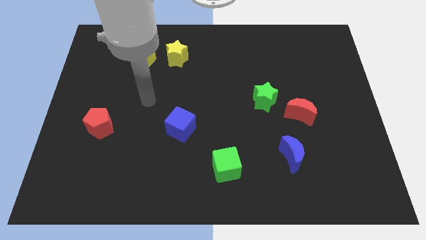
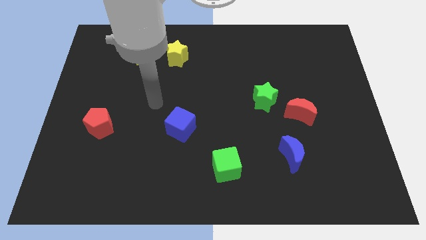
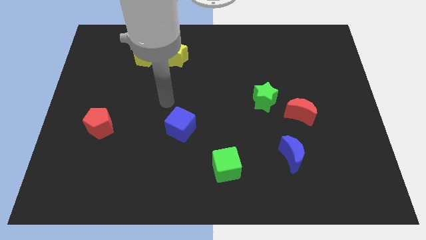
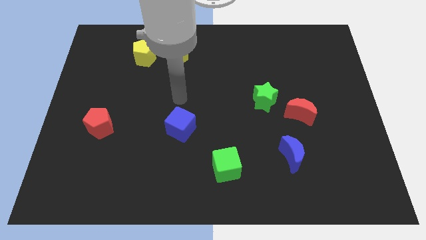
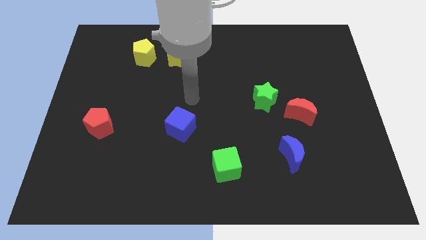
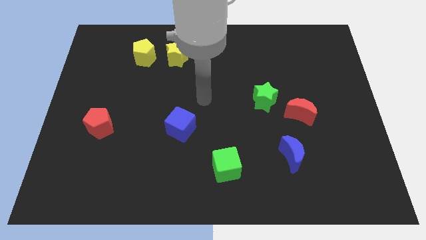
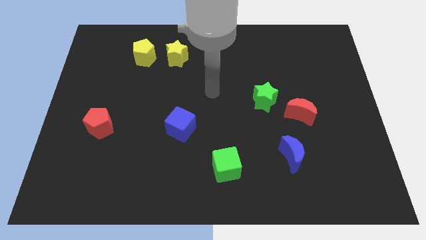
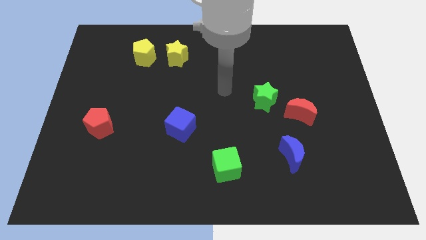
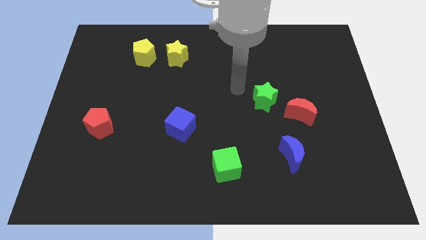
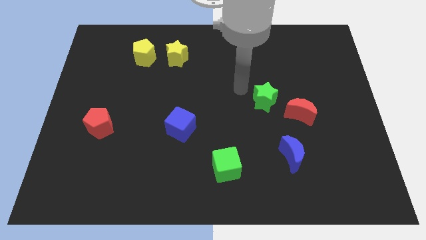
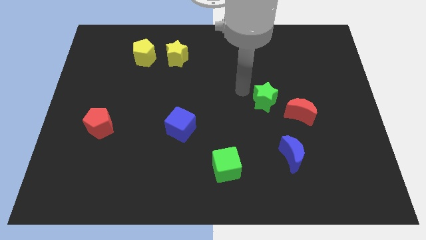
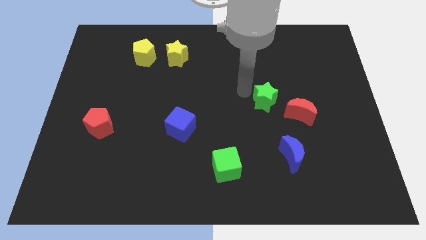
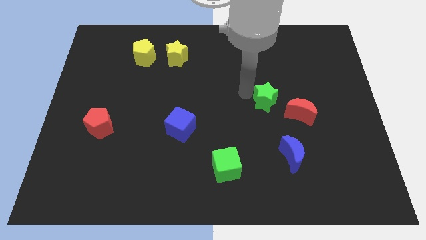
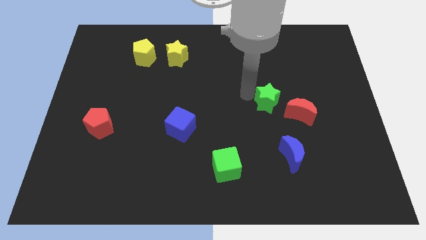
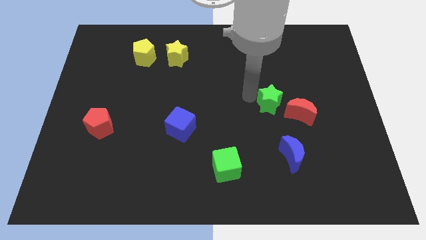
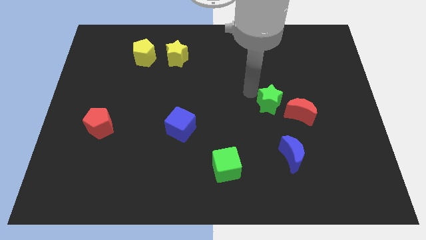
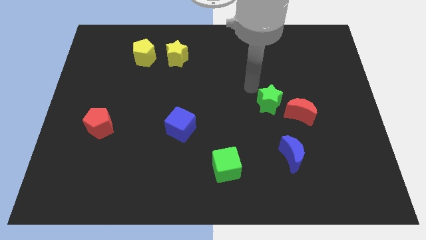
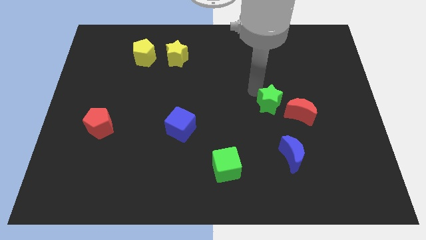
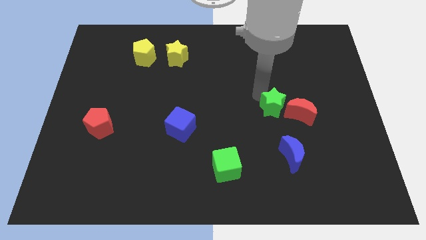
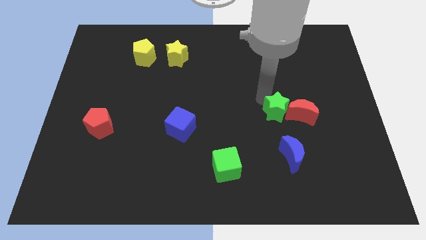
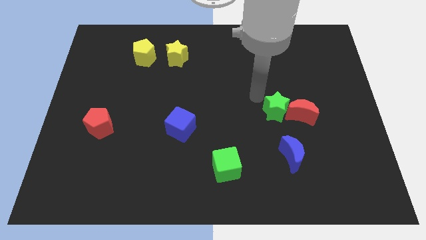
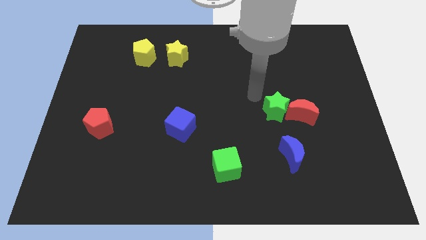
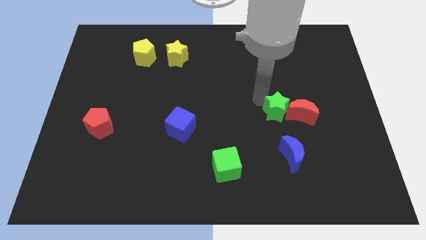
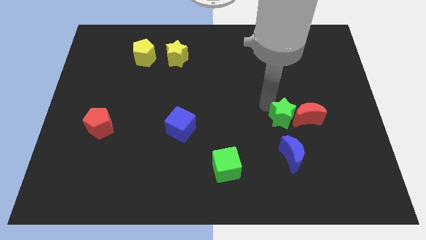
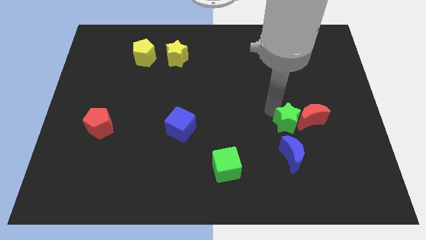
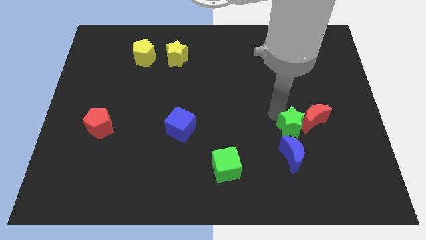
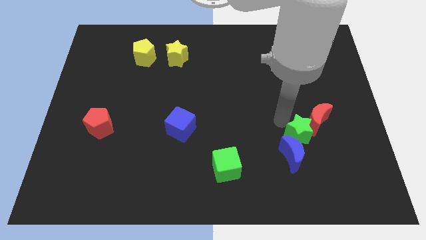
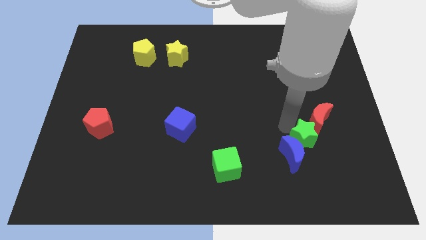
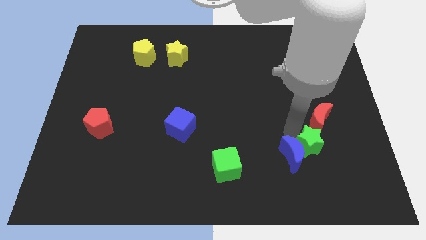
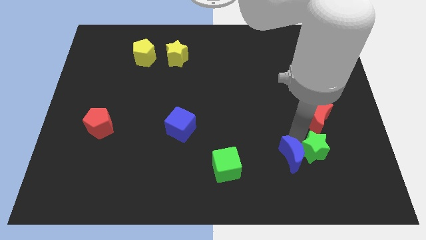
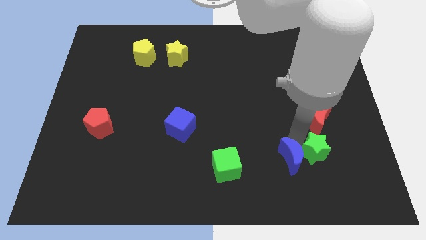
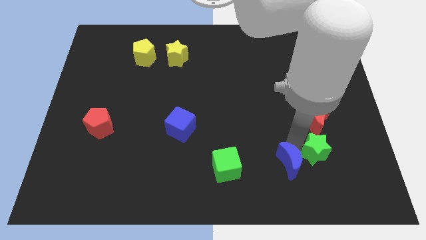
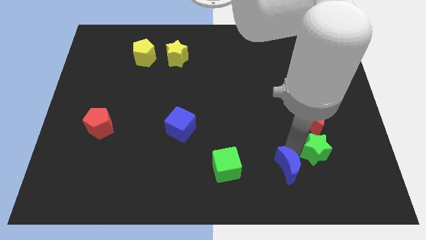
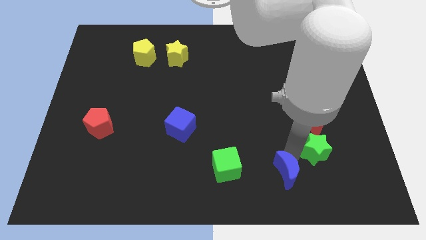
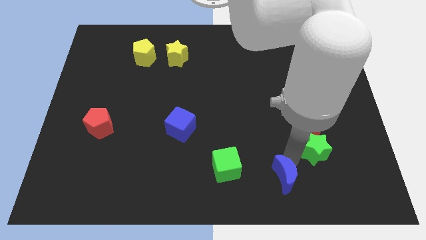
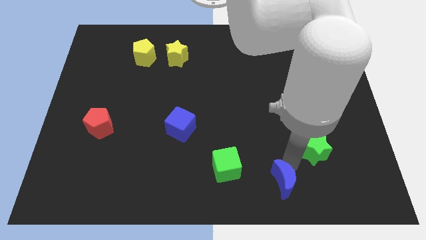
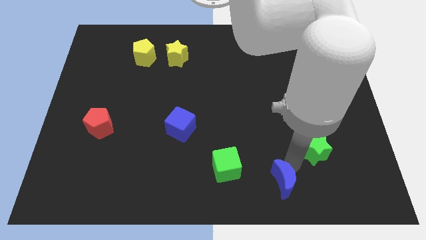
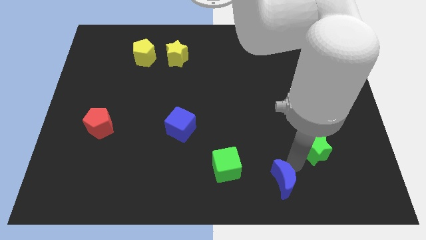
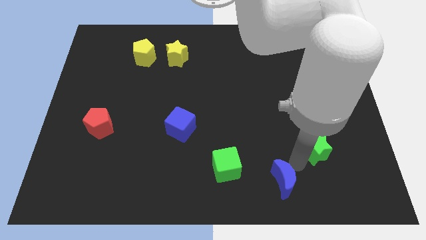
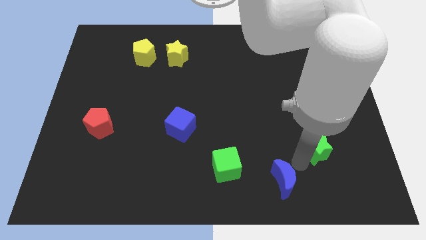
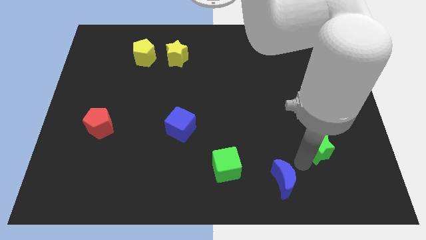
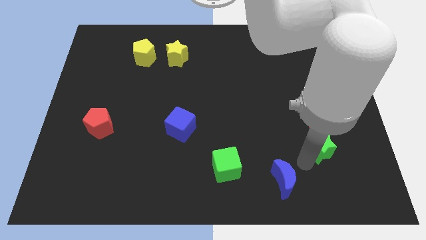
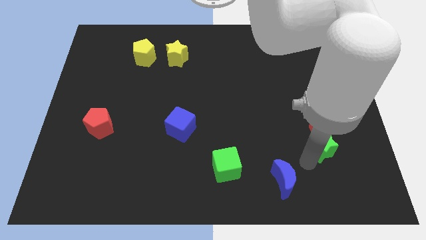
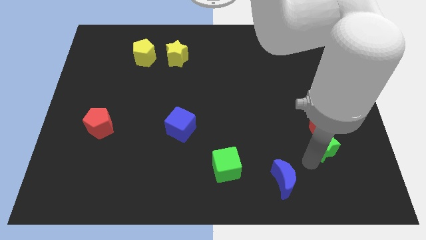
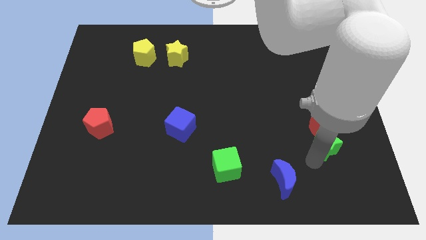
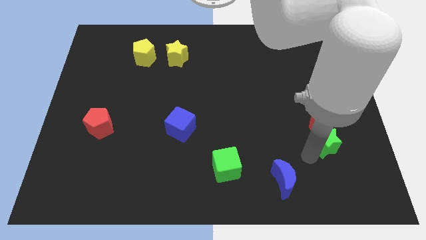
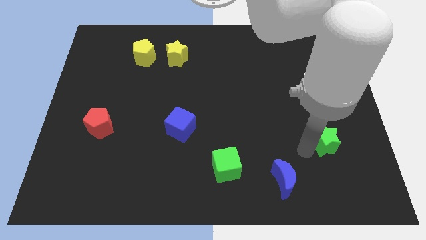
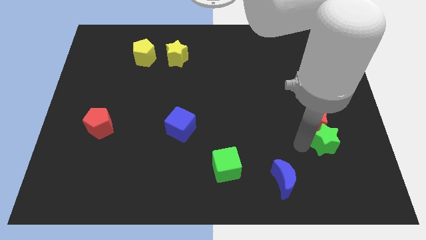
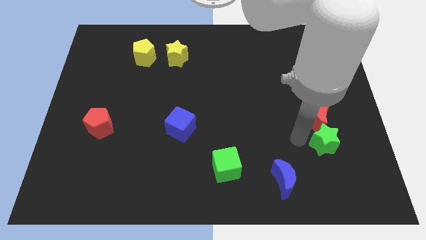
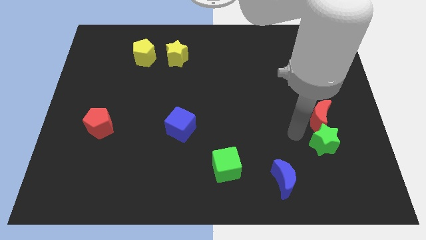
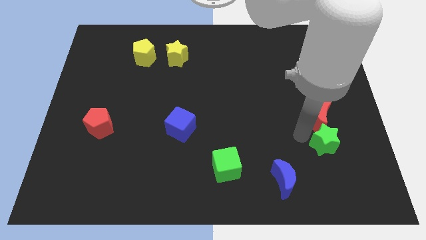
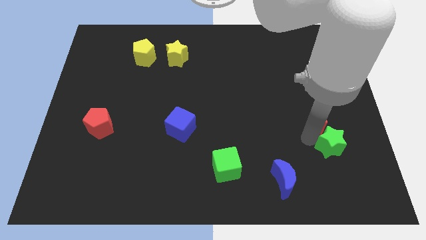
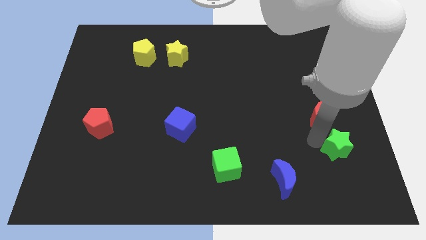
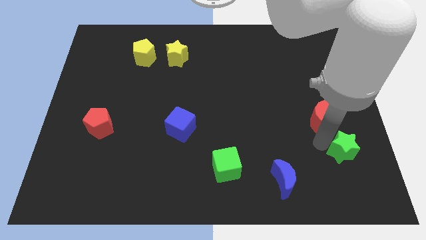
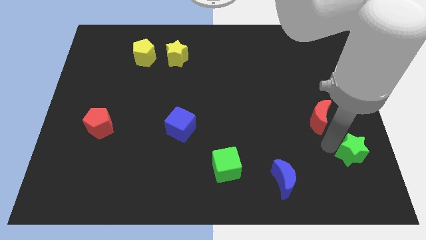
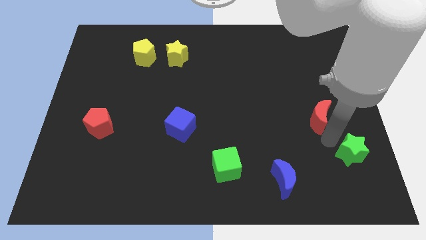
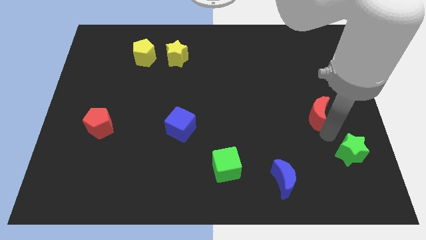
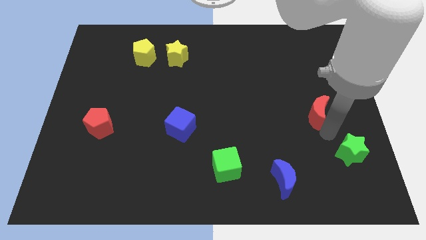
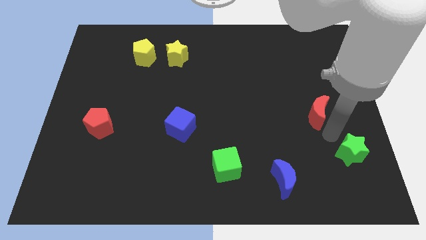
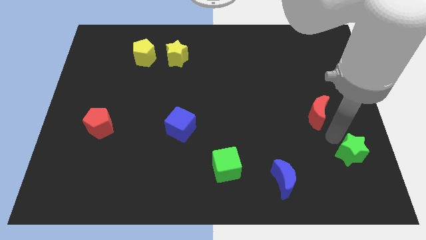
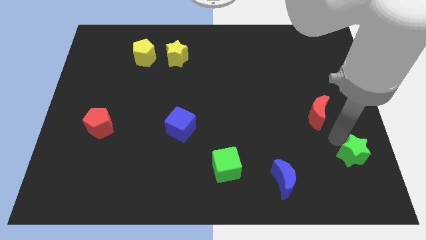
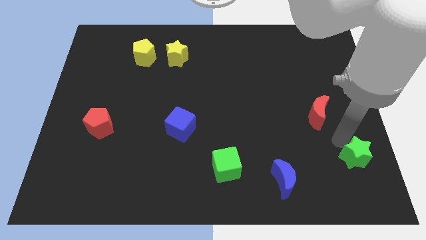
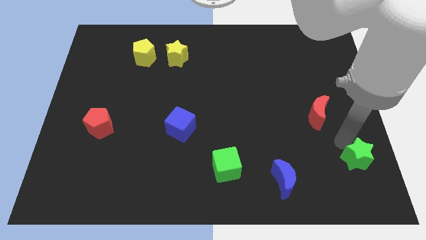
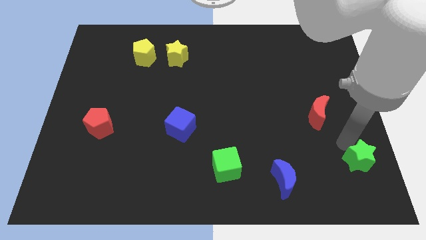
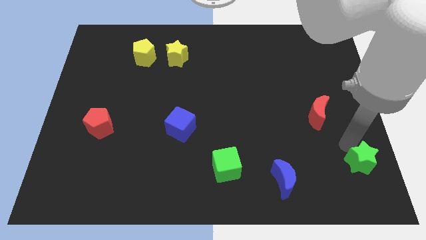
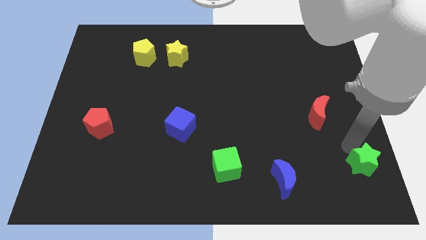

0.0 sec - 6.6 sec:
push the green star to the lower right corner
